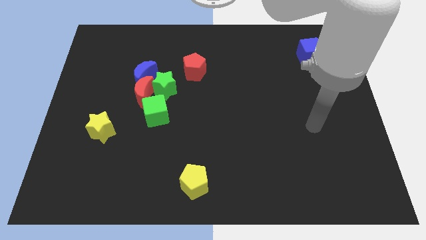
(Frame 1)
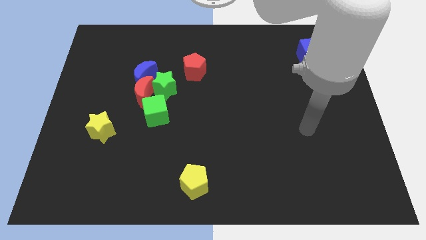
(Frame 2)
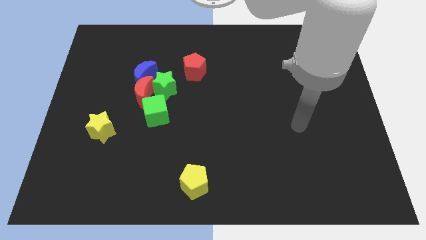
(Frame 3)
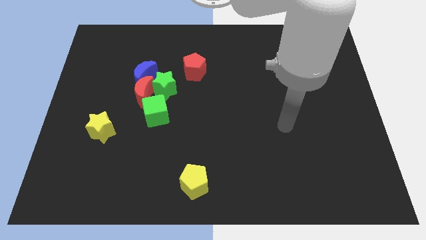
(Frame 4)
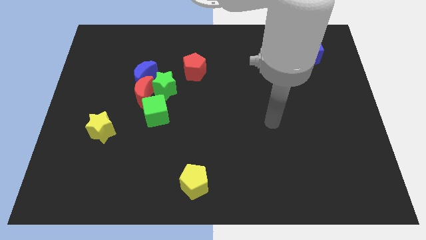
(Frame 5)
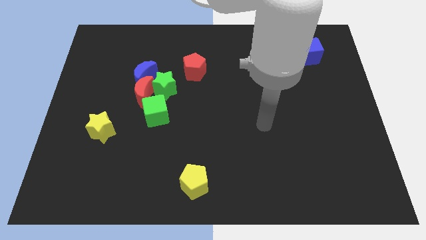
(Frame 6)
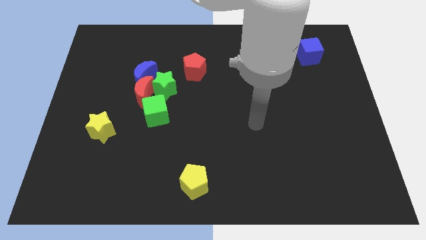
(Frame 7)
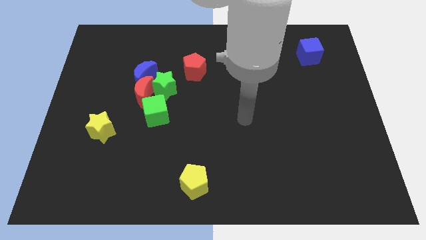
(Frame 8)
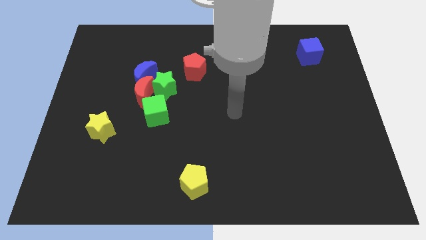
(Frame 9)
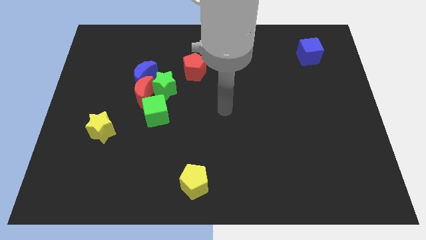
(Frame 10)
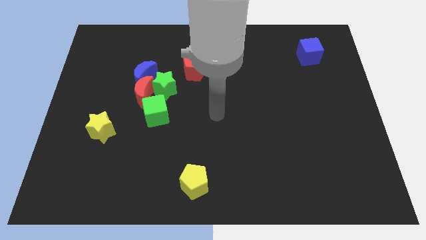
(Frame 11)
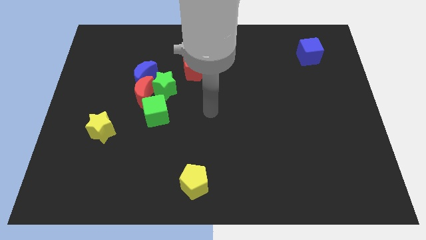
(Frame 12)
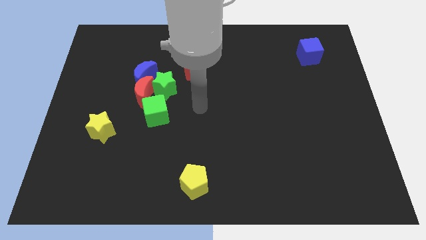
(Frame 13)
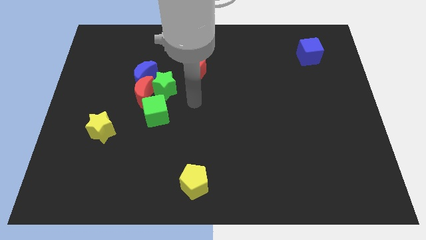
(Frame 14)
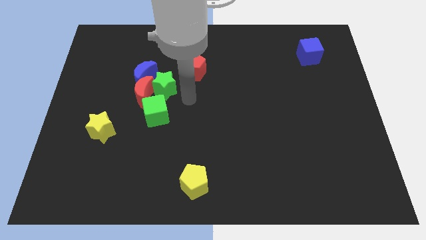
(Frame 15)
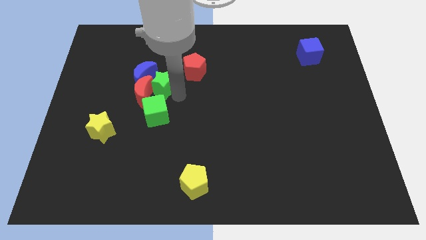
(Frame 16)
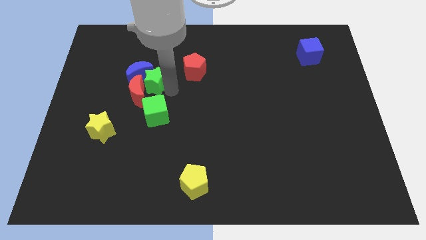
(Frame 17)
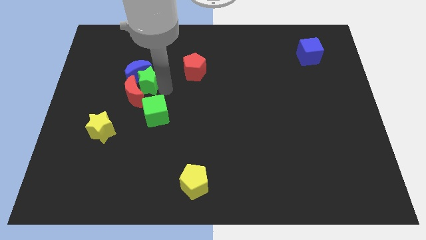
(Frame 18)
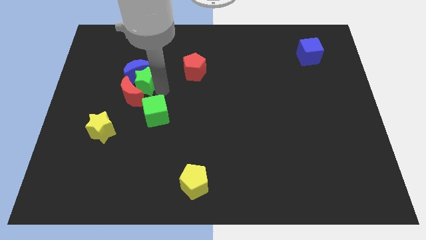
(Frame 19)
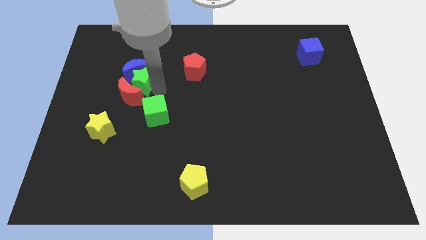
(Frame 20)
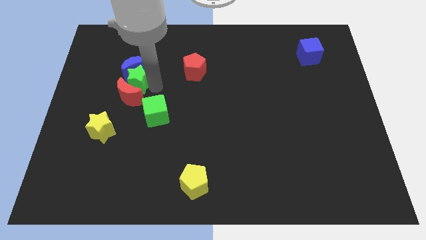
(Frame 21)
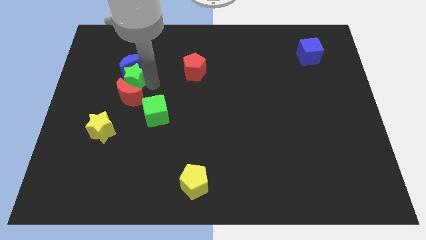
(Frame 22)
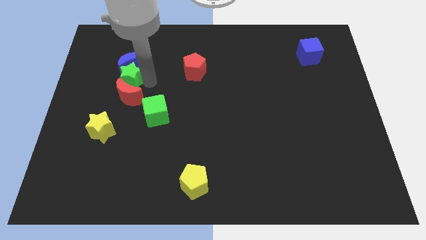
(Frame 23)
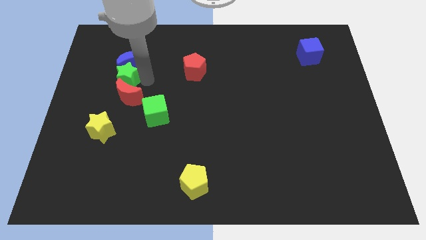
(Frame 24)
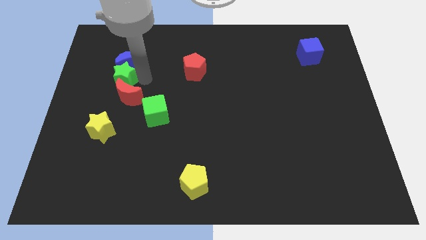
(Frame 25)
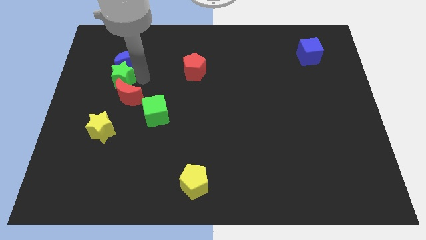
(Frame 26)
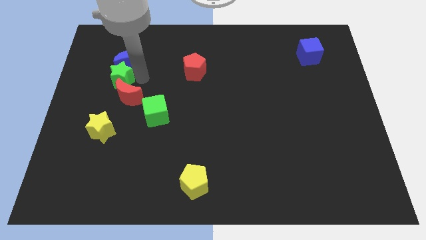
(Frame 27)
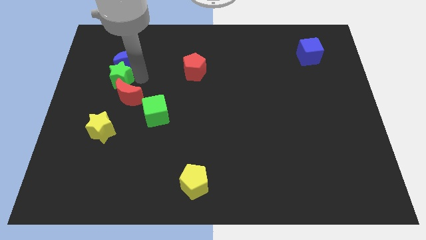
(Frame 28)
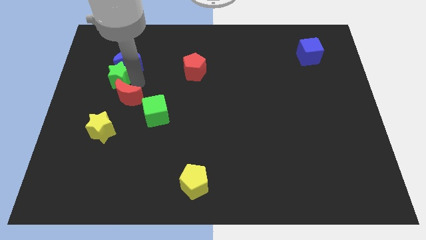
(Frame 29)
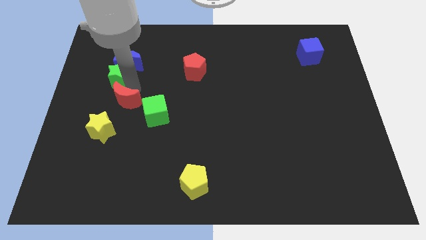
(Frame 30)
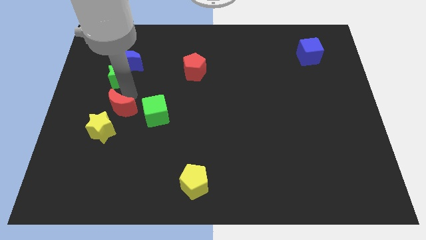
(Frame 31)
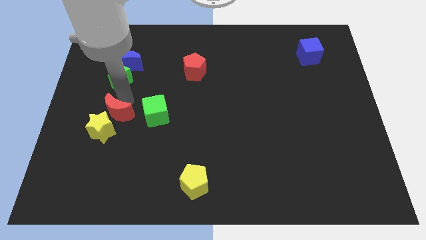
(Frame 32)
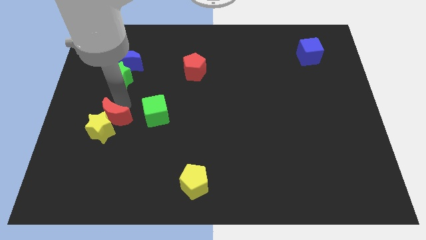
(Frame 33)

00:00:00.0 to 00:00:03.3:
move the red moon away from the group

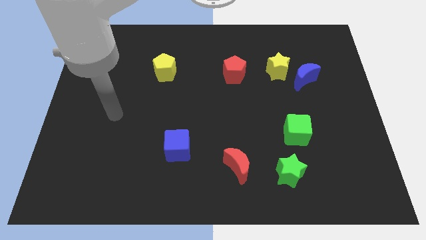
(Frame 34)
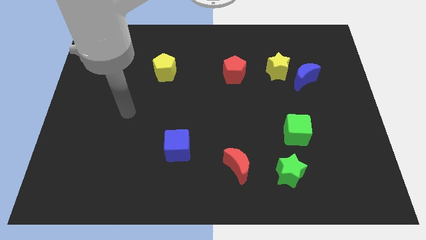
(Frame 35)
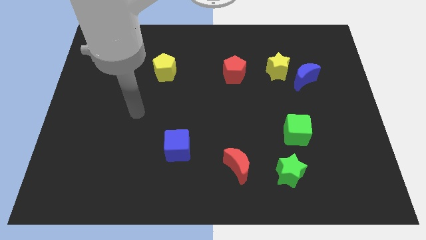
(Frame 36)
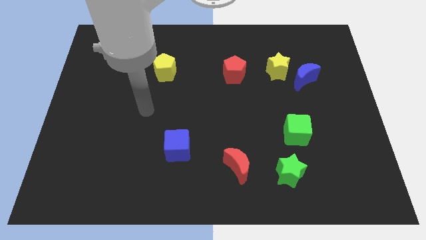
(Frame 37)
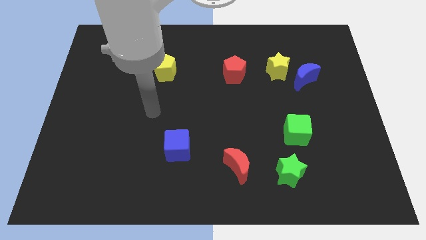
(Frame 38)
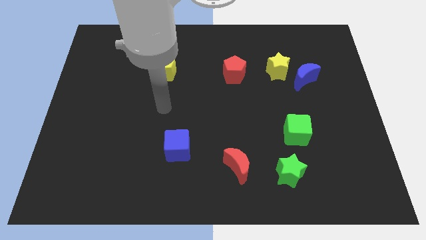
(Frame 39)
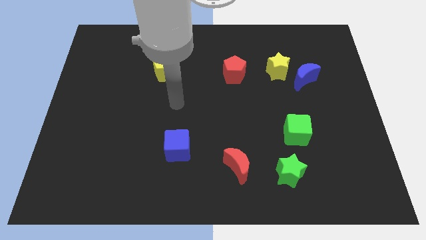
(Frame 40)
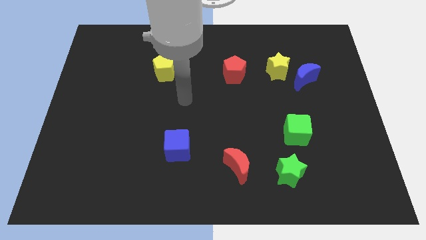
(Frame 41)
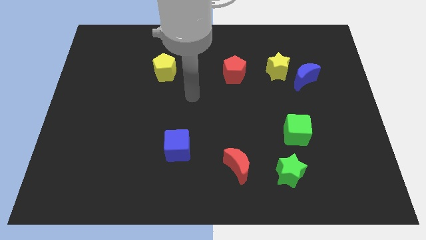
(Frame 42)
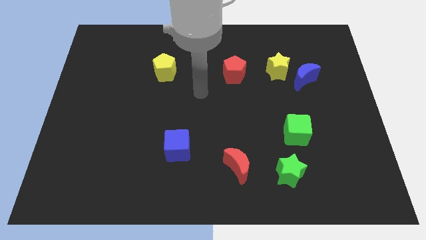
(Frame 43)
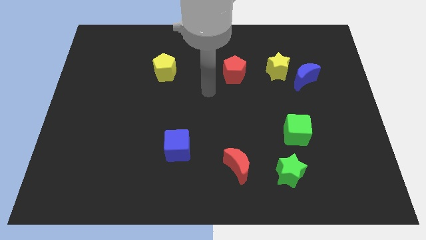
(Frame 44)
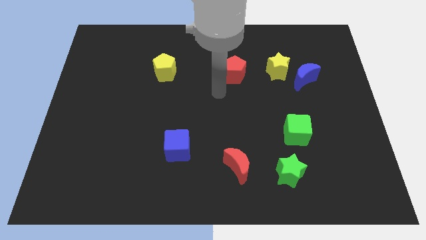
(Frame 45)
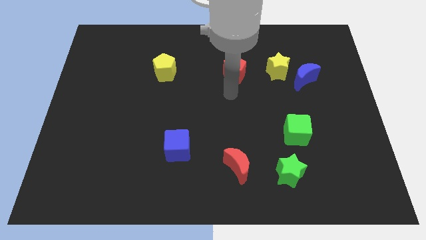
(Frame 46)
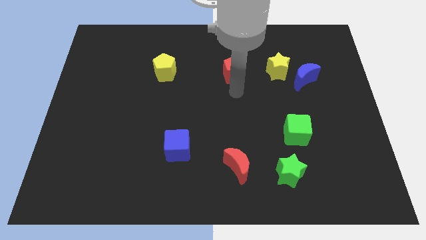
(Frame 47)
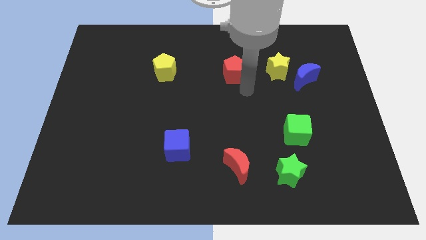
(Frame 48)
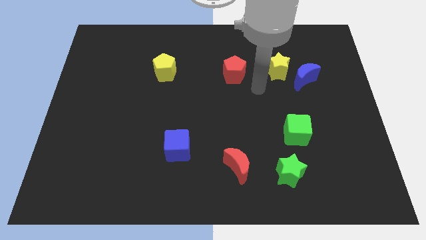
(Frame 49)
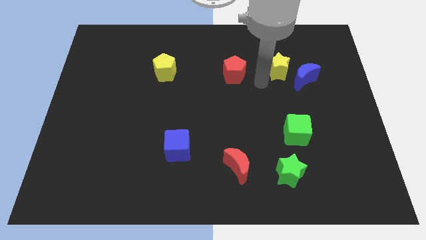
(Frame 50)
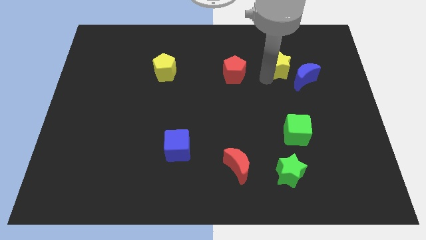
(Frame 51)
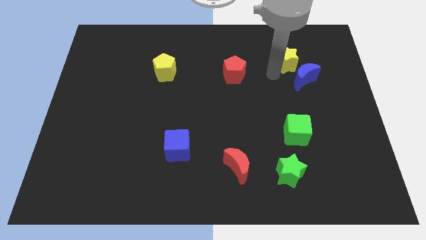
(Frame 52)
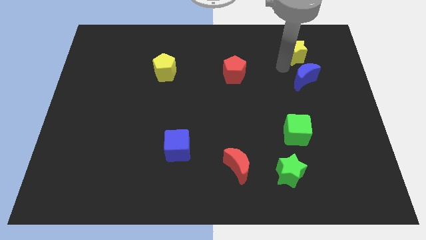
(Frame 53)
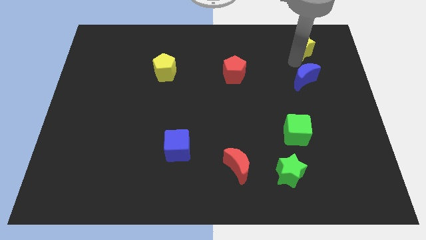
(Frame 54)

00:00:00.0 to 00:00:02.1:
move the blue moon away from the yellow star

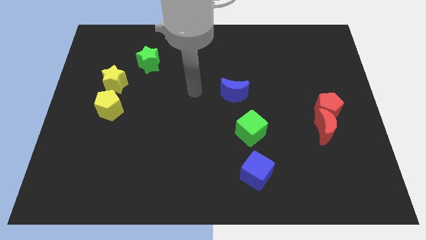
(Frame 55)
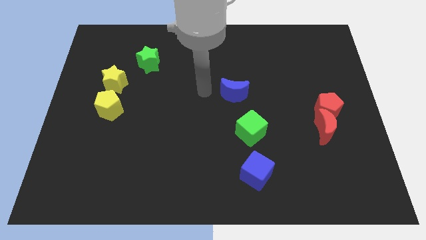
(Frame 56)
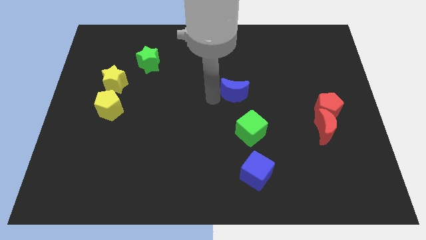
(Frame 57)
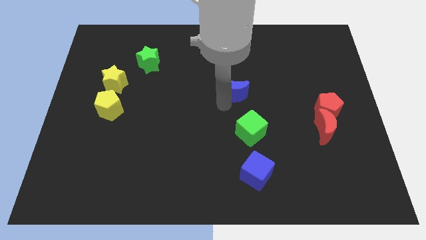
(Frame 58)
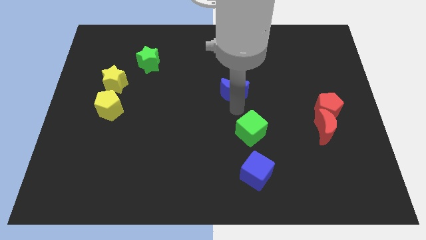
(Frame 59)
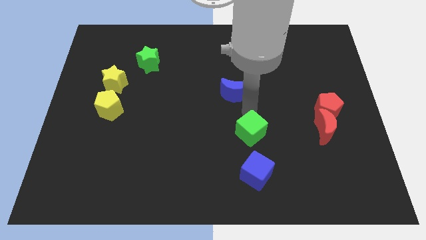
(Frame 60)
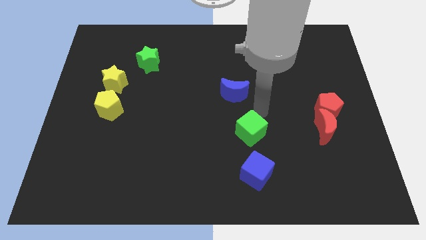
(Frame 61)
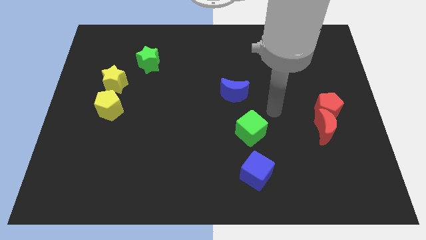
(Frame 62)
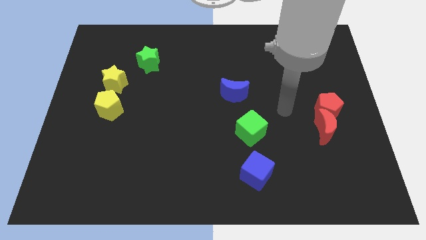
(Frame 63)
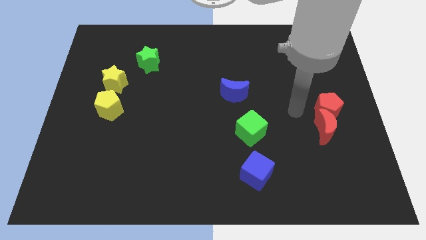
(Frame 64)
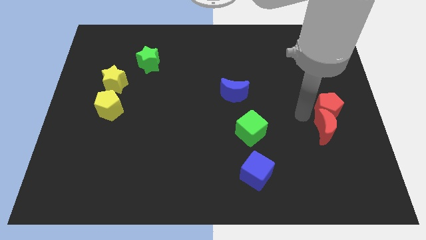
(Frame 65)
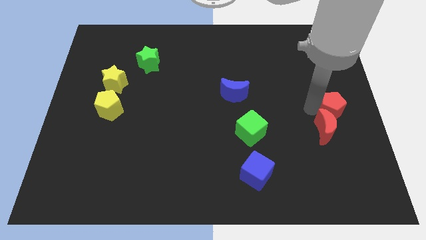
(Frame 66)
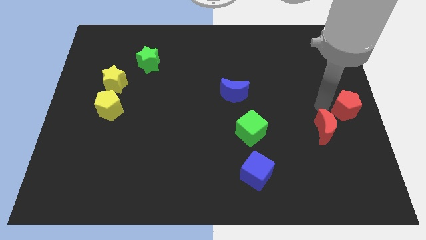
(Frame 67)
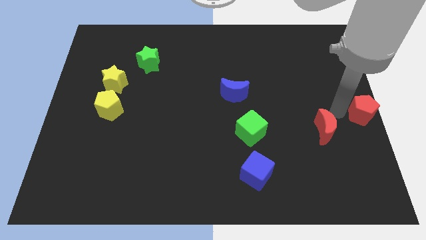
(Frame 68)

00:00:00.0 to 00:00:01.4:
move the red moon away from the red pentagon

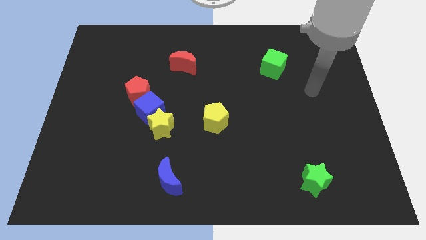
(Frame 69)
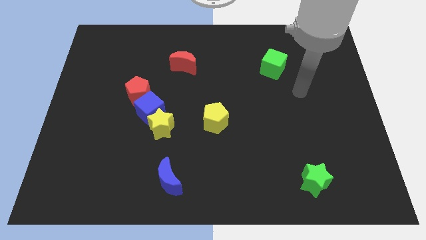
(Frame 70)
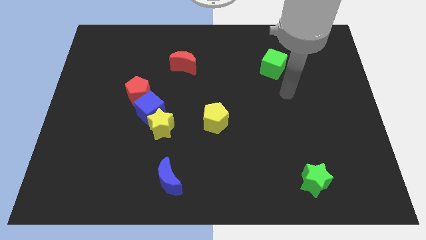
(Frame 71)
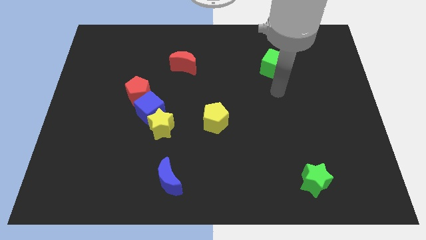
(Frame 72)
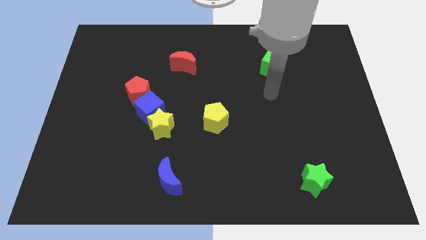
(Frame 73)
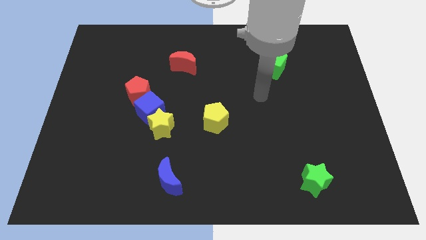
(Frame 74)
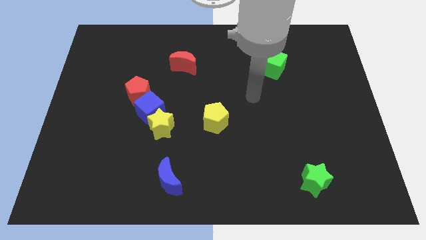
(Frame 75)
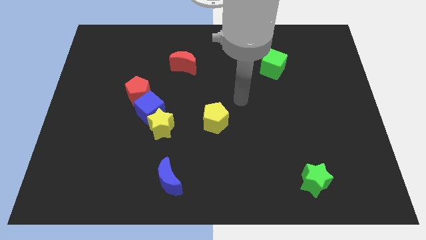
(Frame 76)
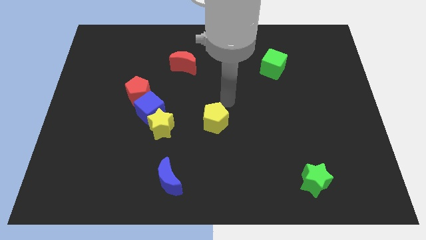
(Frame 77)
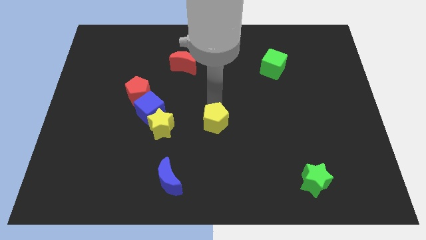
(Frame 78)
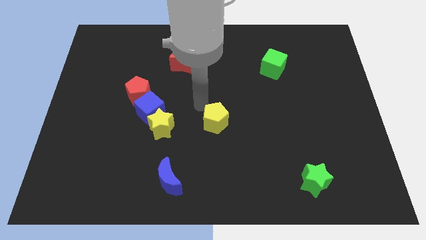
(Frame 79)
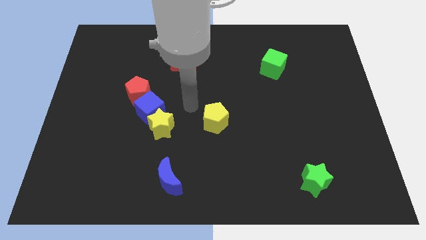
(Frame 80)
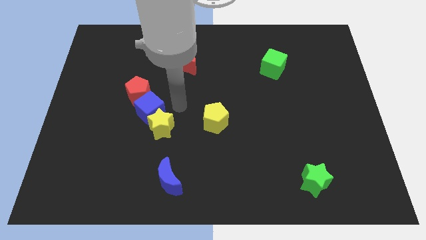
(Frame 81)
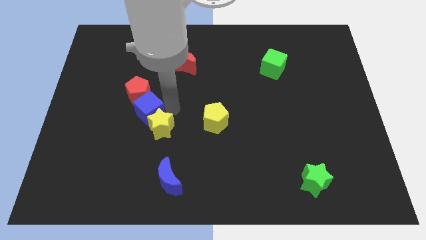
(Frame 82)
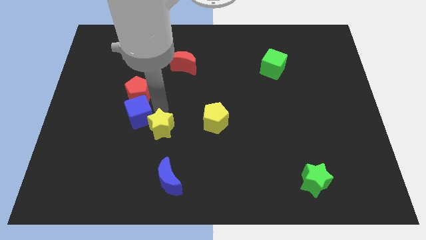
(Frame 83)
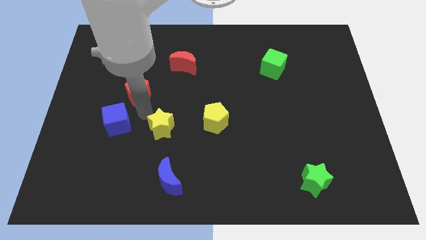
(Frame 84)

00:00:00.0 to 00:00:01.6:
pull the yellow star apart from the blue cube

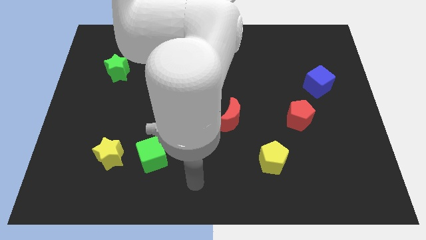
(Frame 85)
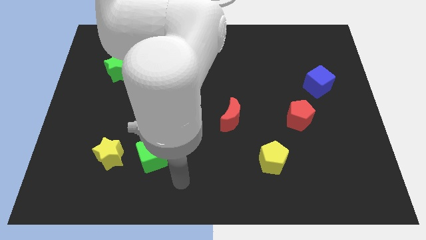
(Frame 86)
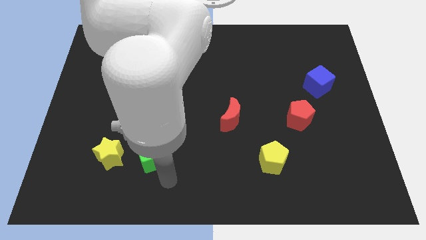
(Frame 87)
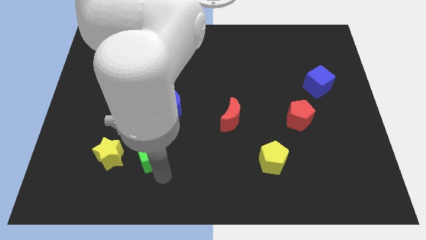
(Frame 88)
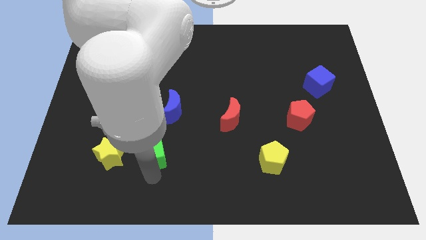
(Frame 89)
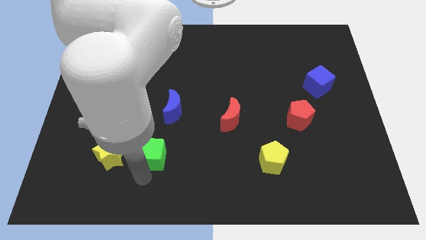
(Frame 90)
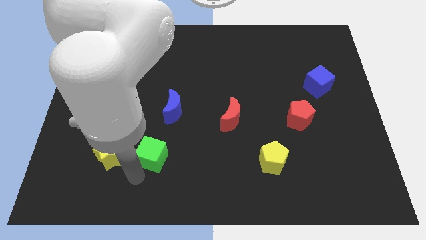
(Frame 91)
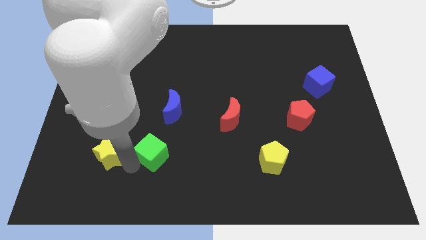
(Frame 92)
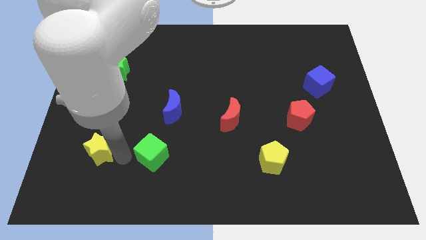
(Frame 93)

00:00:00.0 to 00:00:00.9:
separate the green cube from the yellow star

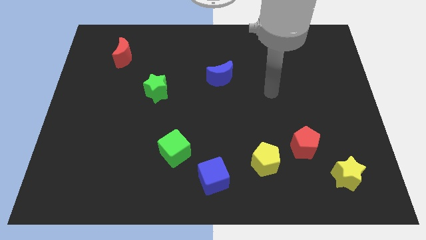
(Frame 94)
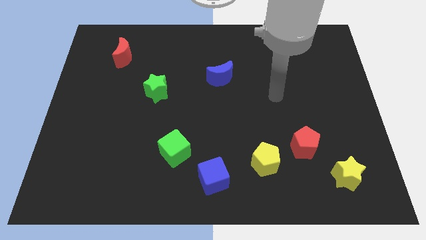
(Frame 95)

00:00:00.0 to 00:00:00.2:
separate the yellow pentagon from the red pentagon

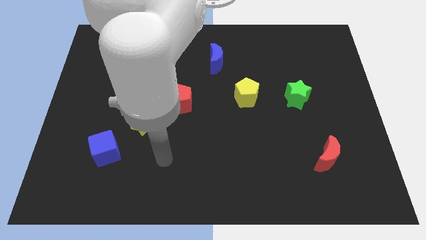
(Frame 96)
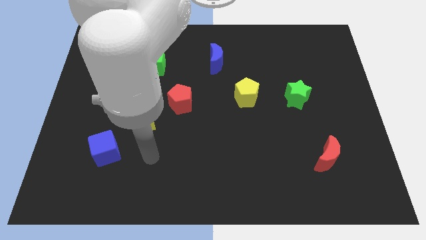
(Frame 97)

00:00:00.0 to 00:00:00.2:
pull the blue cube apart from the yellow star
